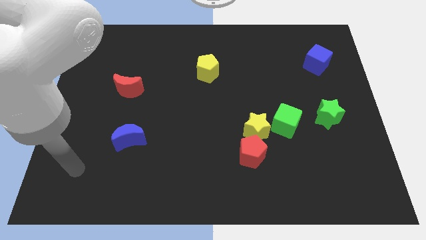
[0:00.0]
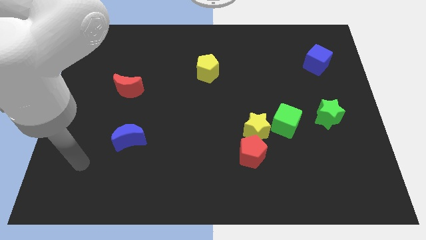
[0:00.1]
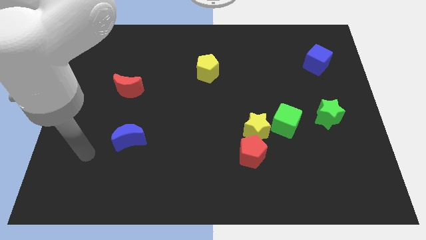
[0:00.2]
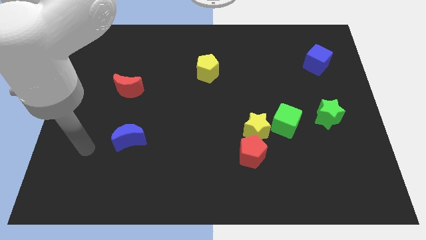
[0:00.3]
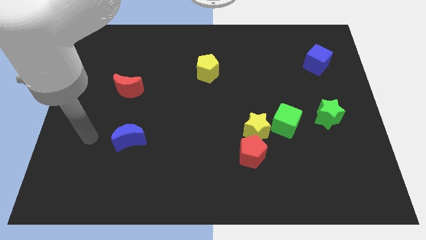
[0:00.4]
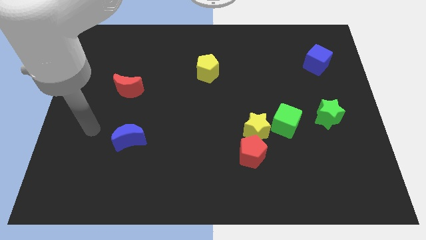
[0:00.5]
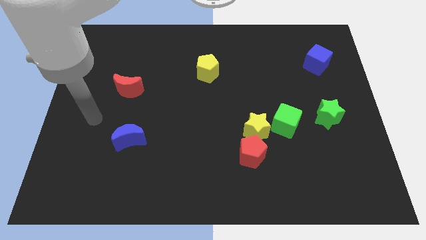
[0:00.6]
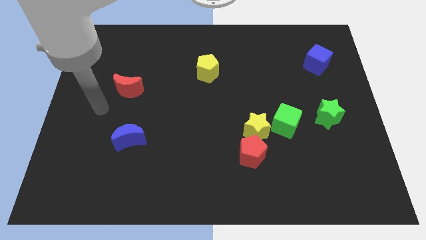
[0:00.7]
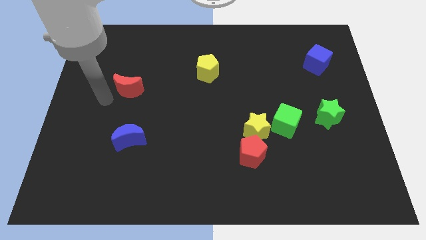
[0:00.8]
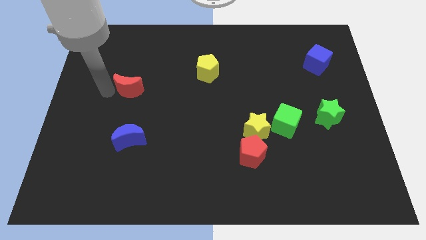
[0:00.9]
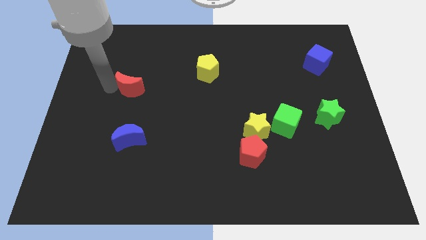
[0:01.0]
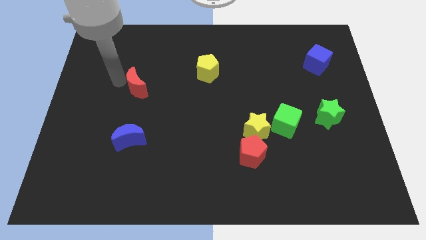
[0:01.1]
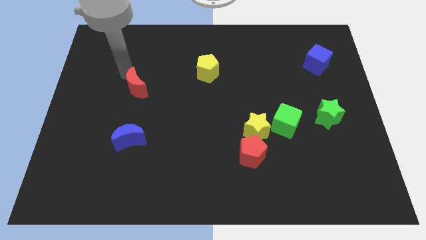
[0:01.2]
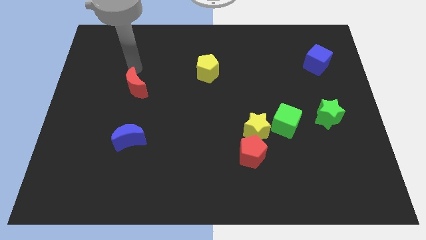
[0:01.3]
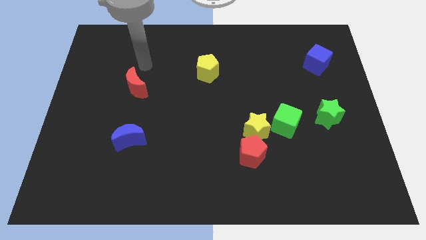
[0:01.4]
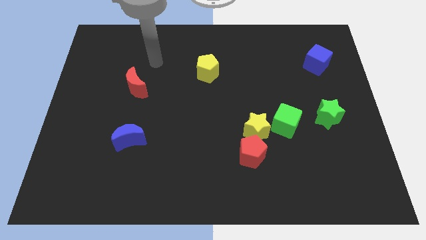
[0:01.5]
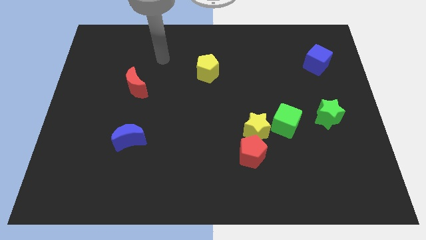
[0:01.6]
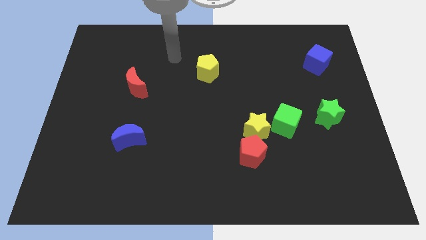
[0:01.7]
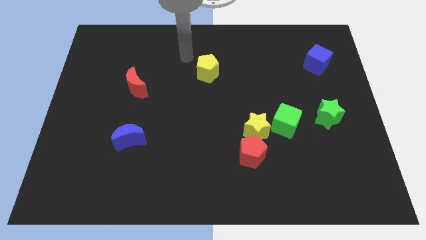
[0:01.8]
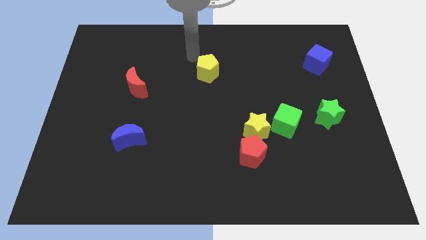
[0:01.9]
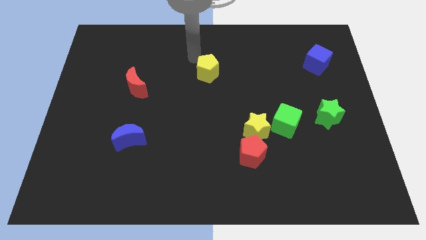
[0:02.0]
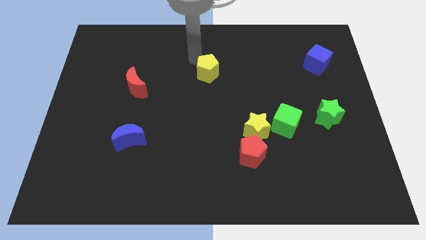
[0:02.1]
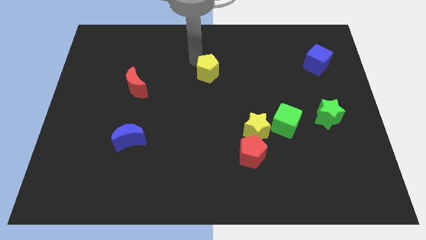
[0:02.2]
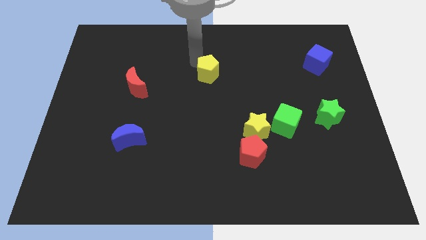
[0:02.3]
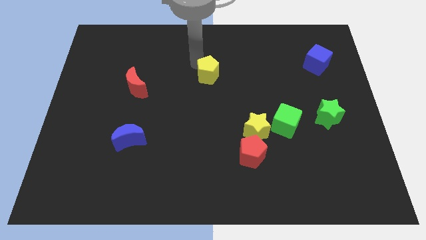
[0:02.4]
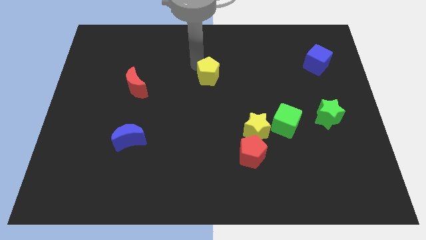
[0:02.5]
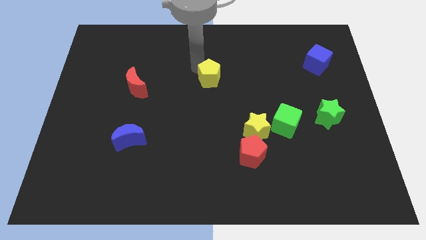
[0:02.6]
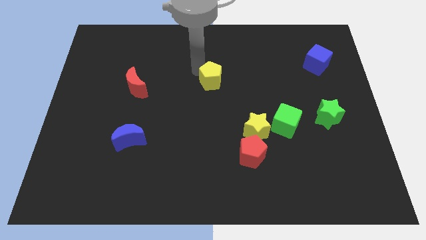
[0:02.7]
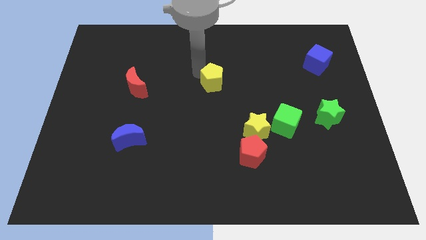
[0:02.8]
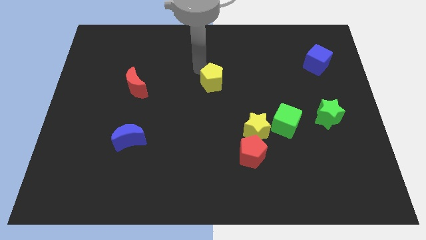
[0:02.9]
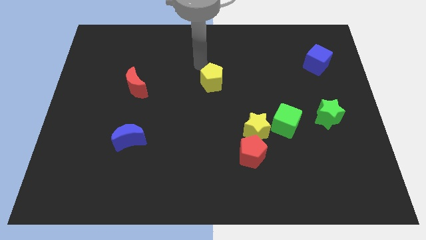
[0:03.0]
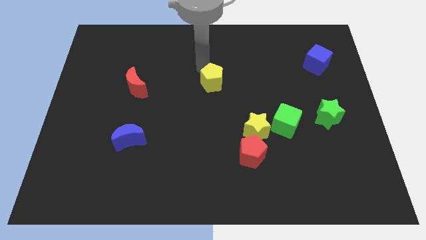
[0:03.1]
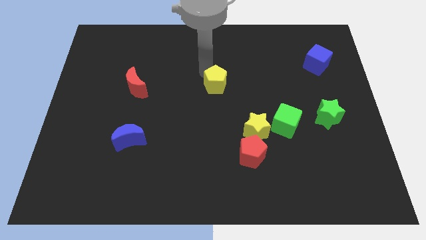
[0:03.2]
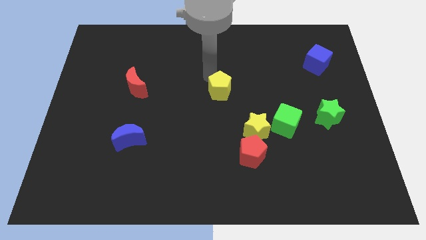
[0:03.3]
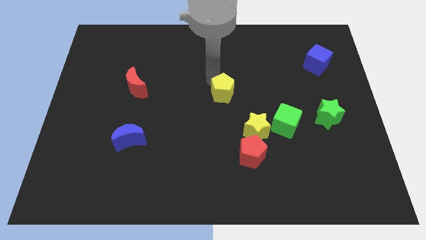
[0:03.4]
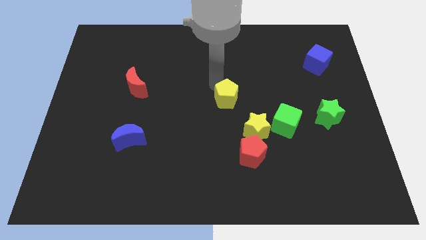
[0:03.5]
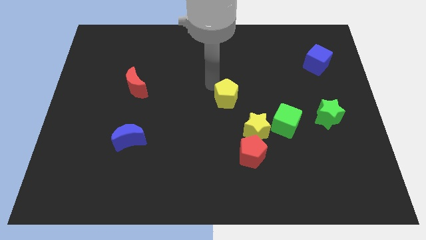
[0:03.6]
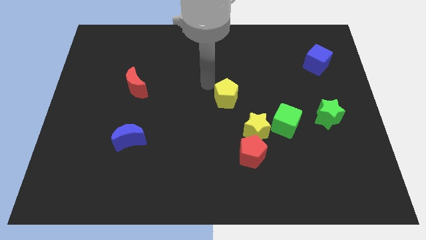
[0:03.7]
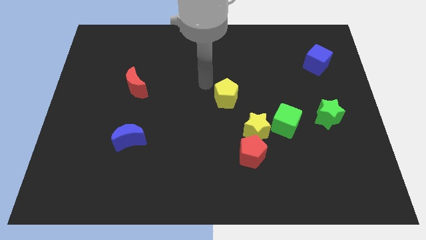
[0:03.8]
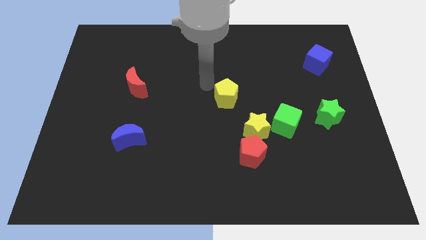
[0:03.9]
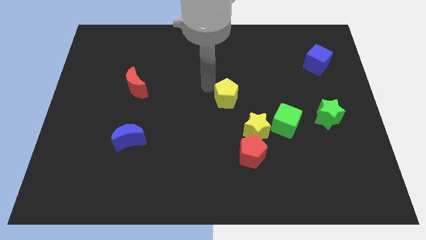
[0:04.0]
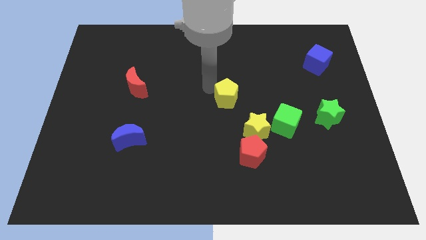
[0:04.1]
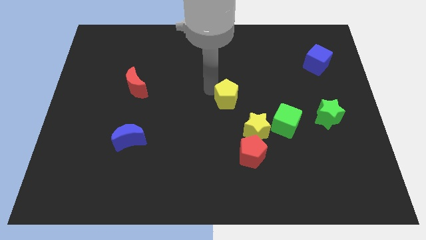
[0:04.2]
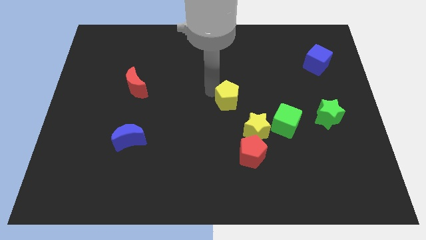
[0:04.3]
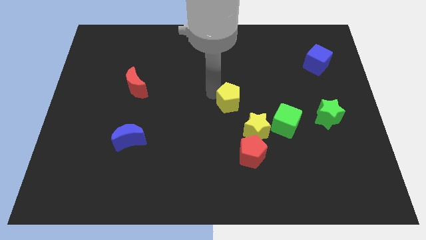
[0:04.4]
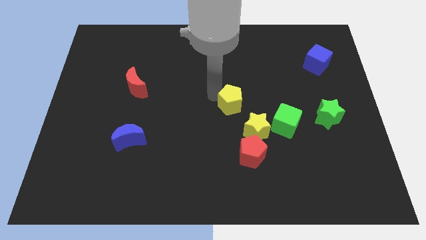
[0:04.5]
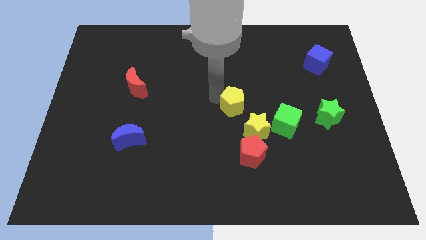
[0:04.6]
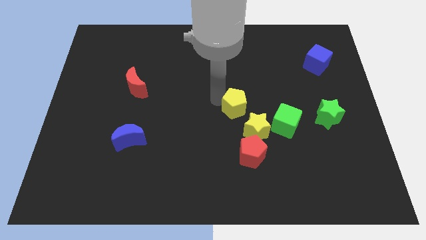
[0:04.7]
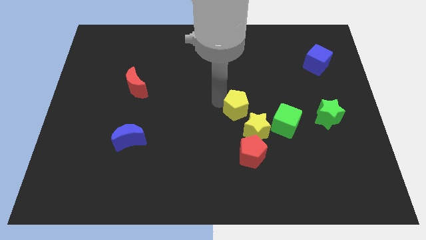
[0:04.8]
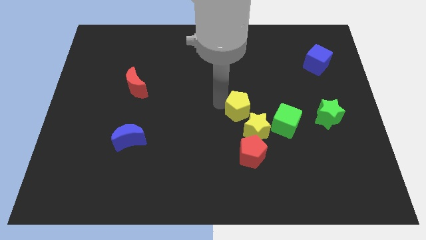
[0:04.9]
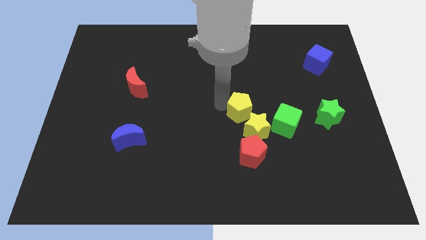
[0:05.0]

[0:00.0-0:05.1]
move the yellow pentagon towards the yellow star

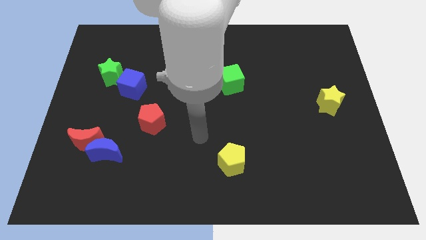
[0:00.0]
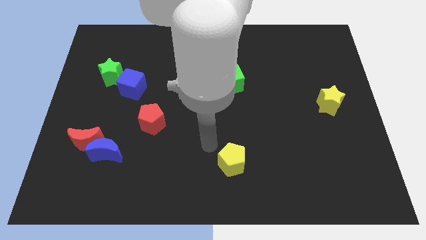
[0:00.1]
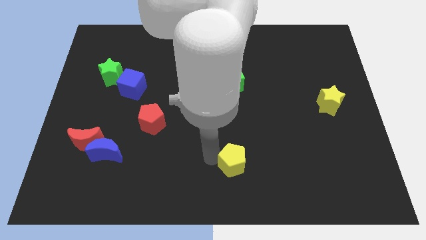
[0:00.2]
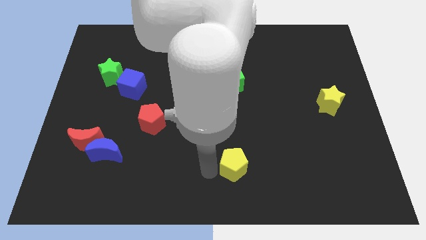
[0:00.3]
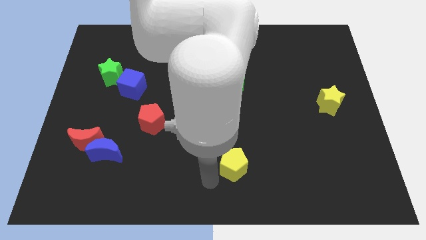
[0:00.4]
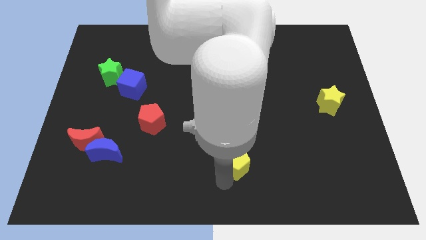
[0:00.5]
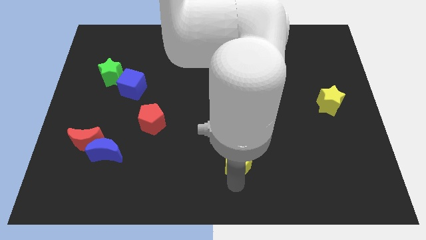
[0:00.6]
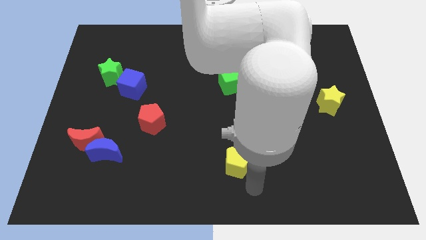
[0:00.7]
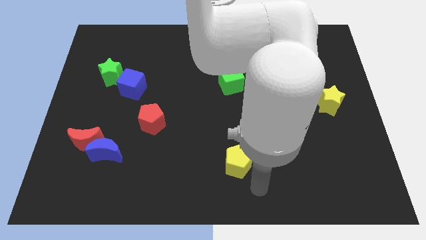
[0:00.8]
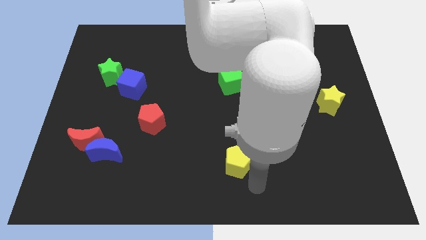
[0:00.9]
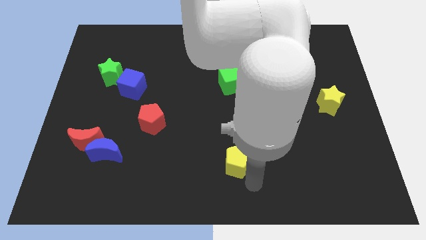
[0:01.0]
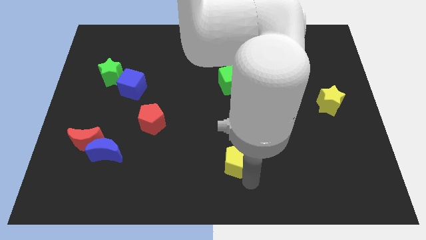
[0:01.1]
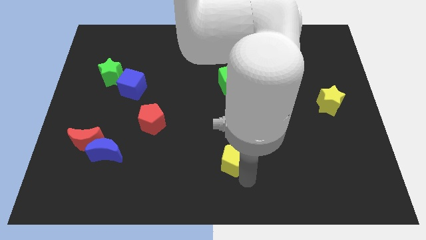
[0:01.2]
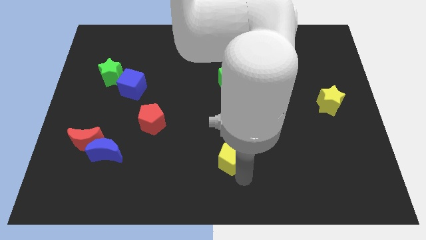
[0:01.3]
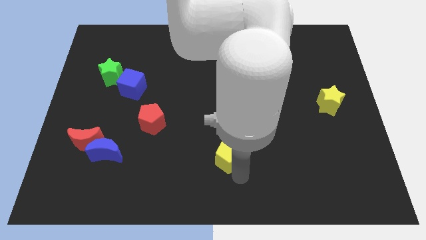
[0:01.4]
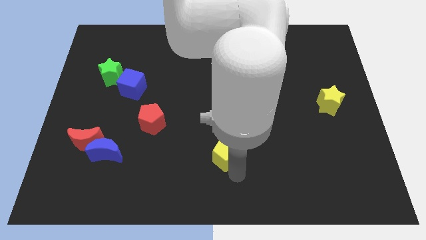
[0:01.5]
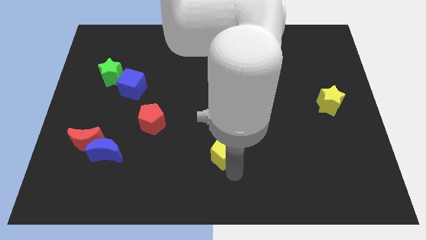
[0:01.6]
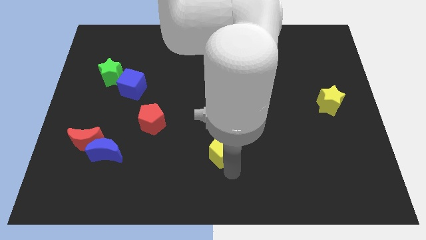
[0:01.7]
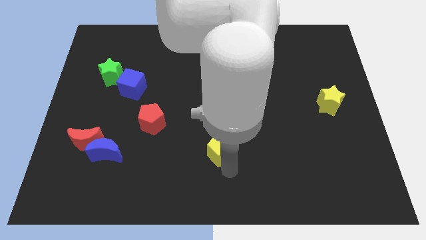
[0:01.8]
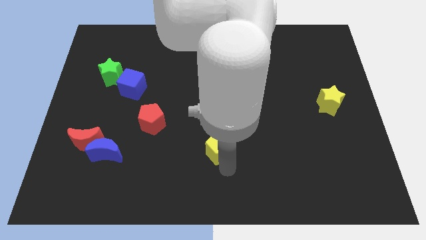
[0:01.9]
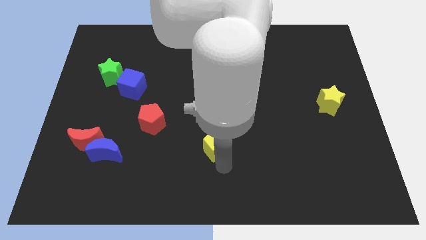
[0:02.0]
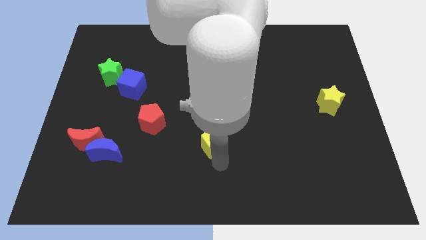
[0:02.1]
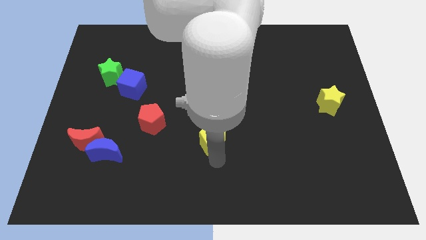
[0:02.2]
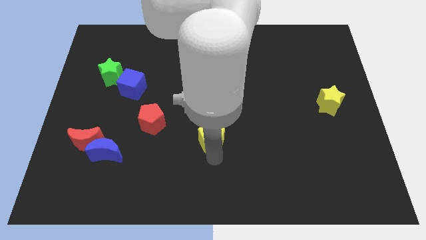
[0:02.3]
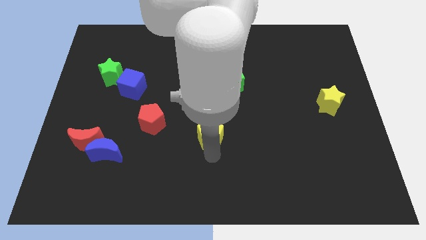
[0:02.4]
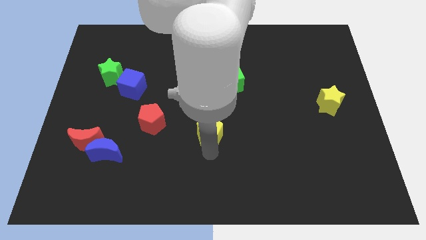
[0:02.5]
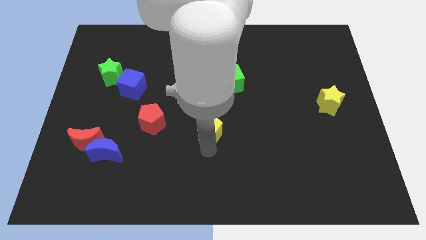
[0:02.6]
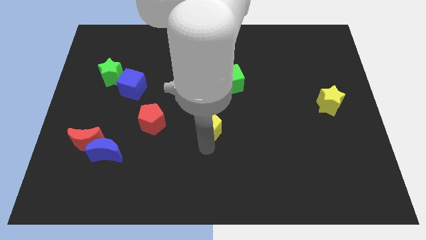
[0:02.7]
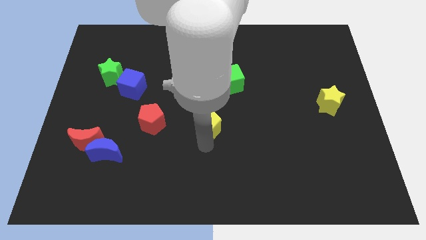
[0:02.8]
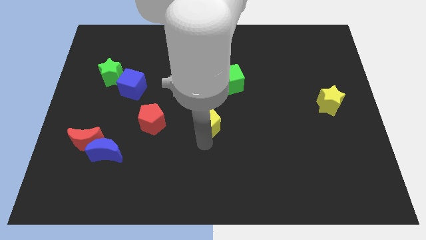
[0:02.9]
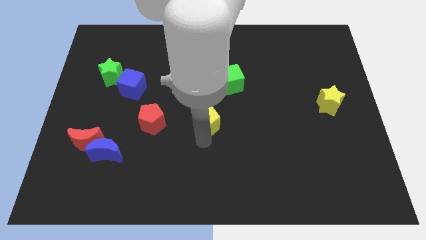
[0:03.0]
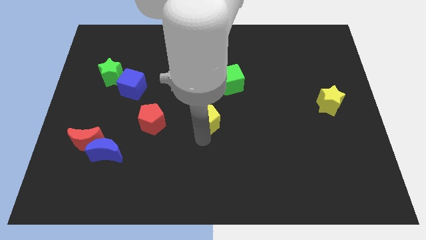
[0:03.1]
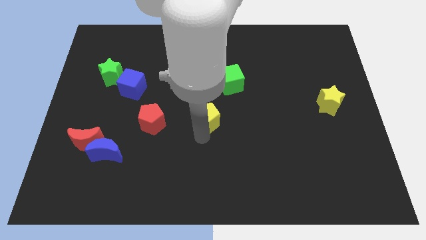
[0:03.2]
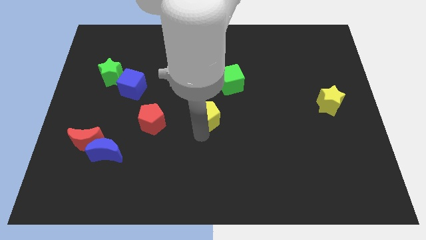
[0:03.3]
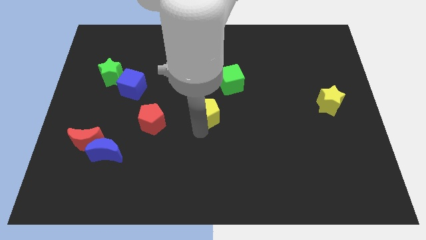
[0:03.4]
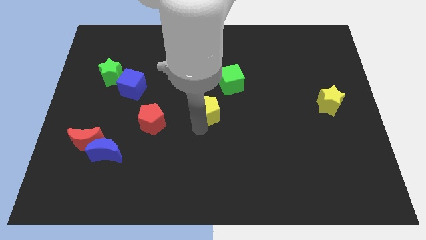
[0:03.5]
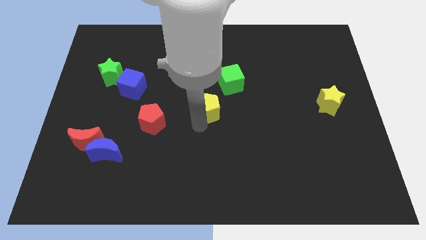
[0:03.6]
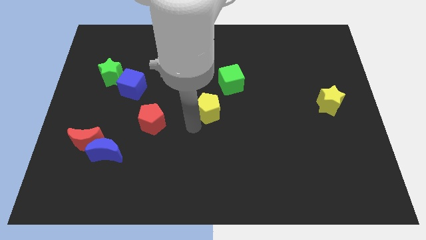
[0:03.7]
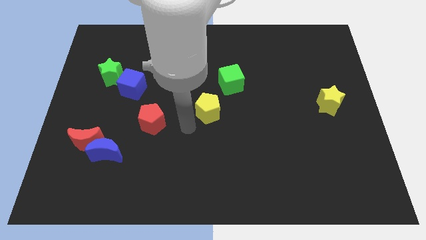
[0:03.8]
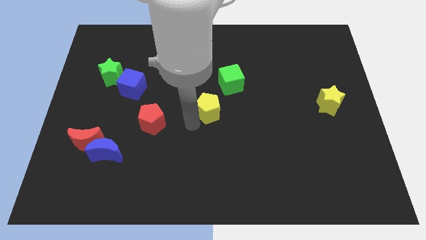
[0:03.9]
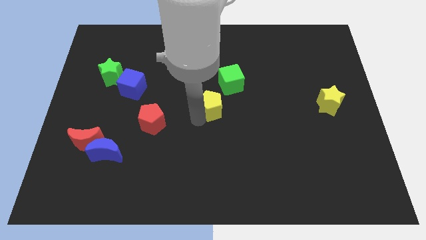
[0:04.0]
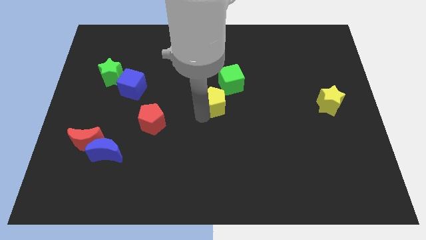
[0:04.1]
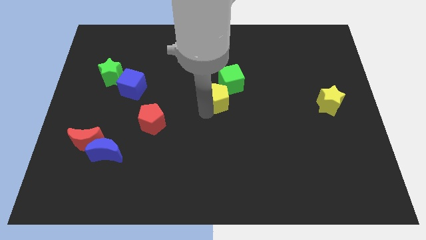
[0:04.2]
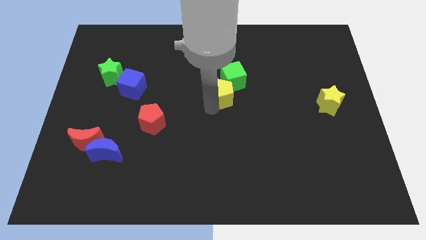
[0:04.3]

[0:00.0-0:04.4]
put the yellow pentagon towards the green cube
